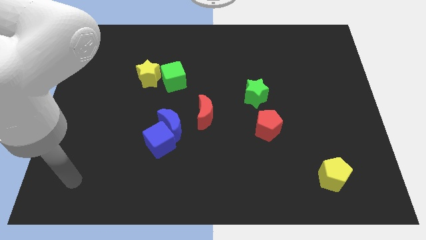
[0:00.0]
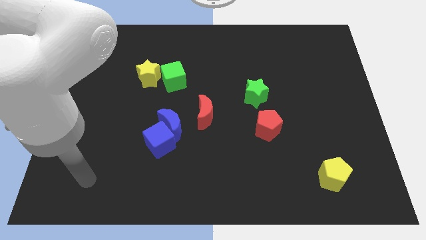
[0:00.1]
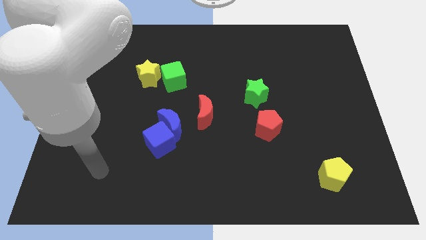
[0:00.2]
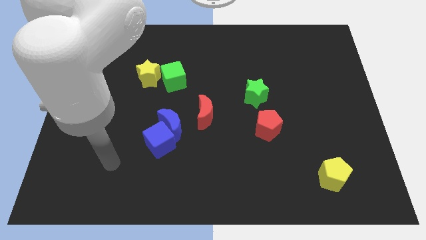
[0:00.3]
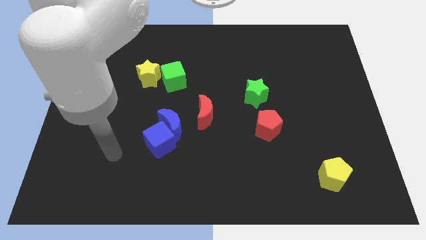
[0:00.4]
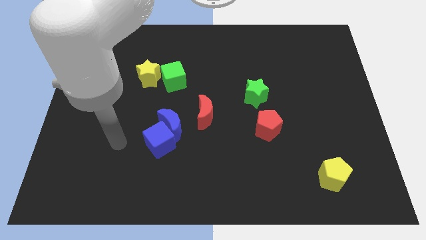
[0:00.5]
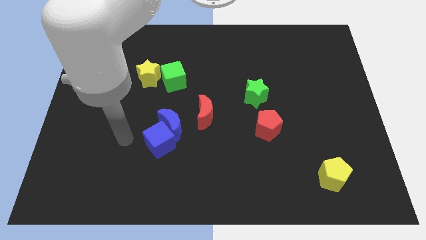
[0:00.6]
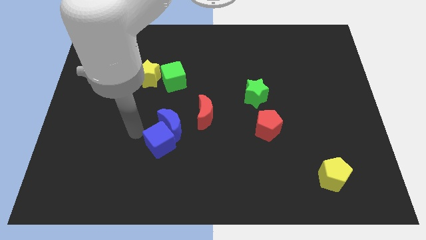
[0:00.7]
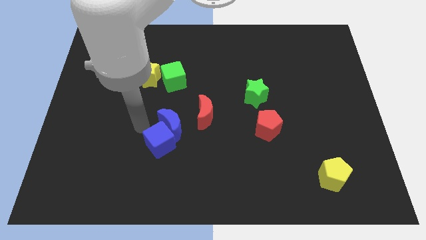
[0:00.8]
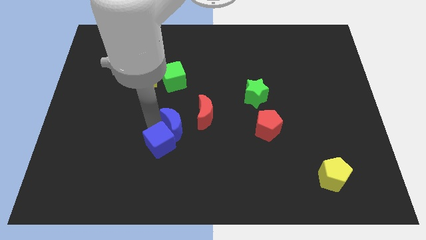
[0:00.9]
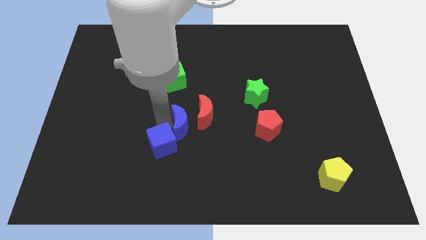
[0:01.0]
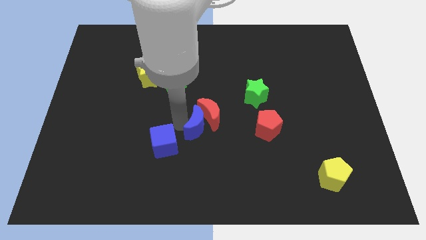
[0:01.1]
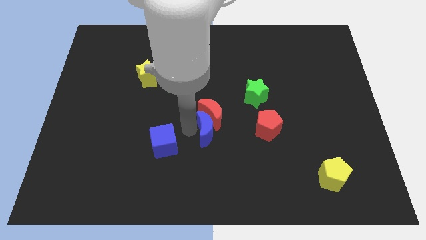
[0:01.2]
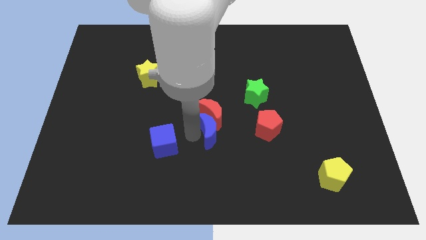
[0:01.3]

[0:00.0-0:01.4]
move the blue cube away from the blue moon

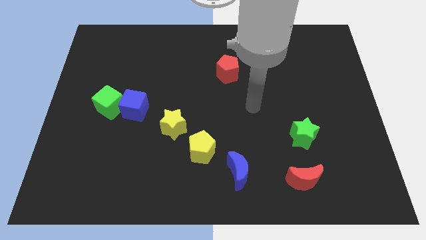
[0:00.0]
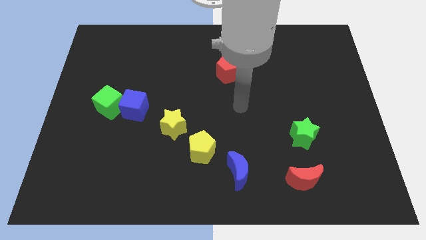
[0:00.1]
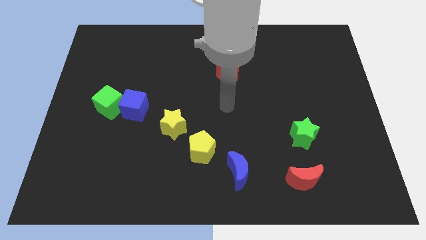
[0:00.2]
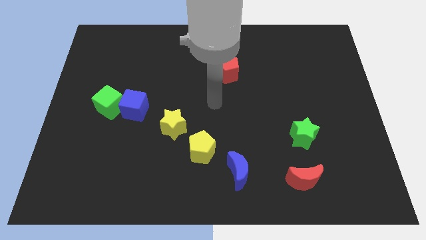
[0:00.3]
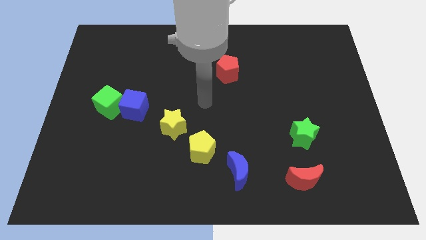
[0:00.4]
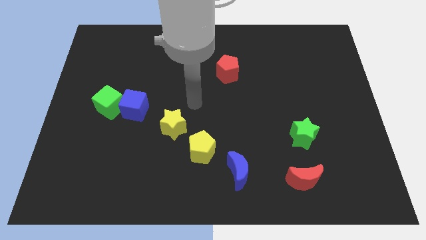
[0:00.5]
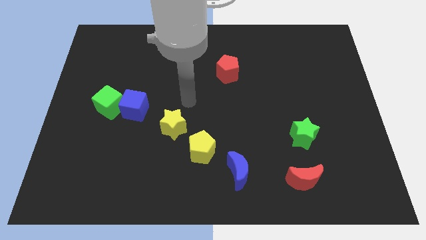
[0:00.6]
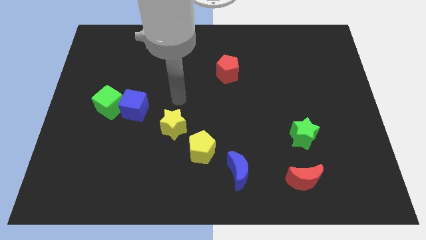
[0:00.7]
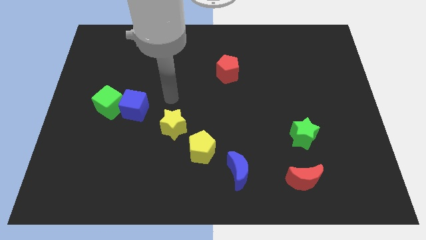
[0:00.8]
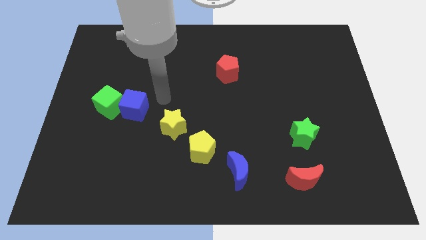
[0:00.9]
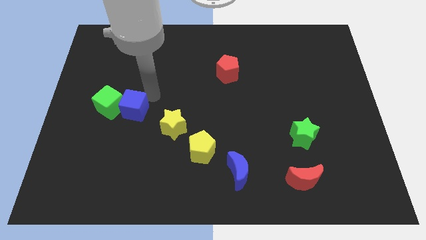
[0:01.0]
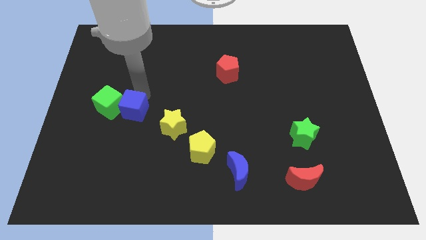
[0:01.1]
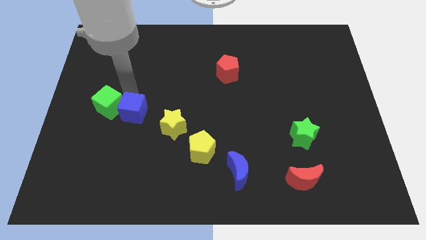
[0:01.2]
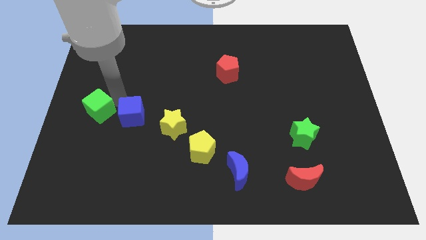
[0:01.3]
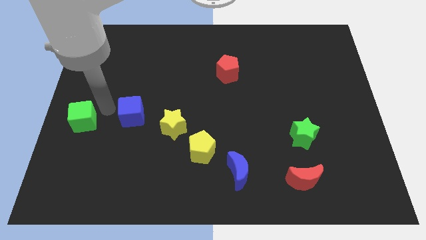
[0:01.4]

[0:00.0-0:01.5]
move the blue cube away from the green cube

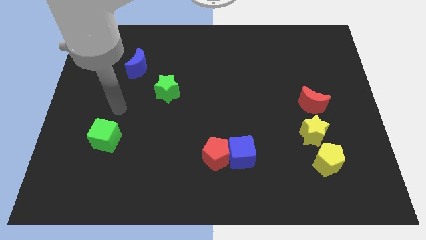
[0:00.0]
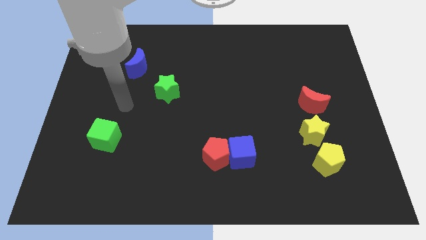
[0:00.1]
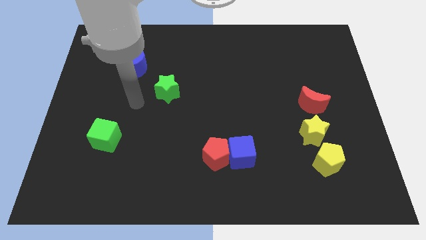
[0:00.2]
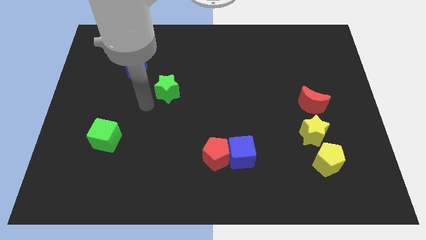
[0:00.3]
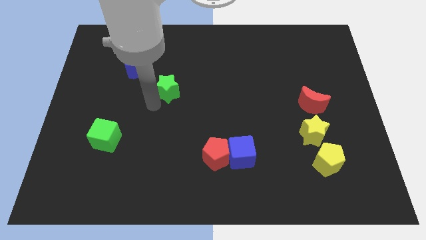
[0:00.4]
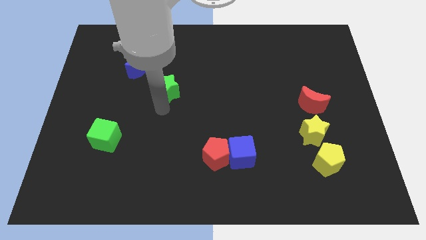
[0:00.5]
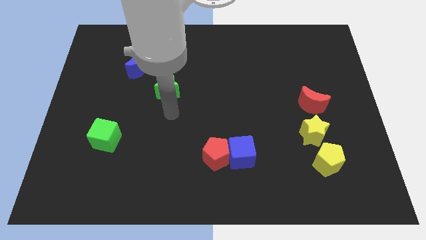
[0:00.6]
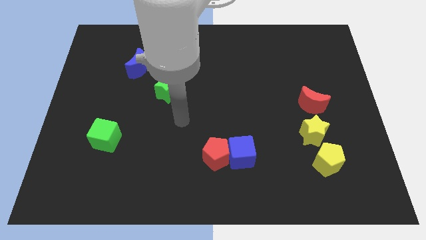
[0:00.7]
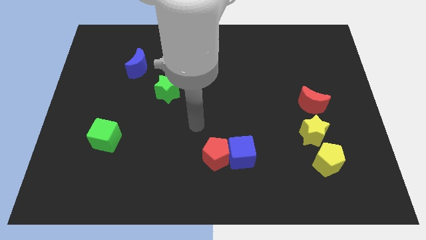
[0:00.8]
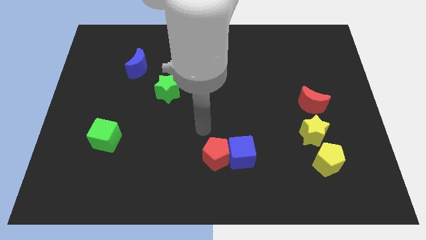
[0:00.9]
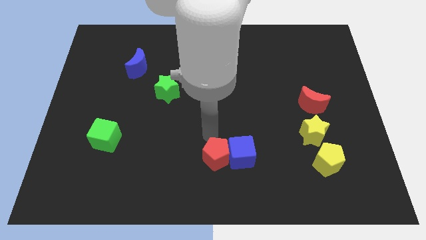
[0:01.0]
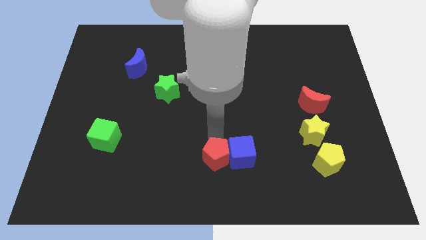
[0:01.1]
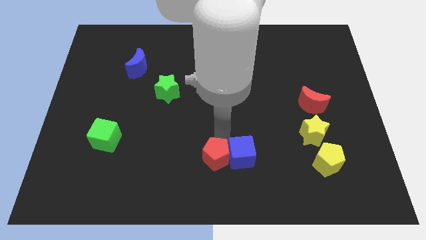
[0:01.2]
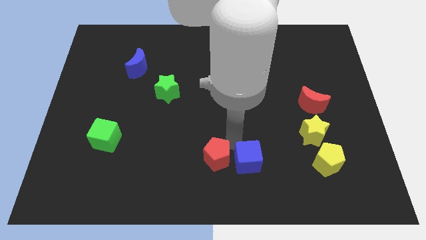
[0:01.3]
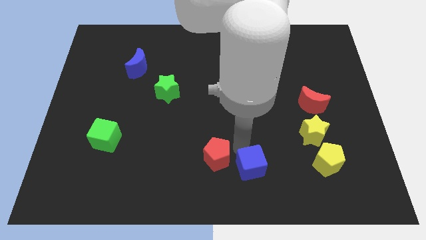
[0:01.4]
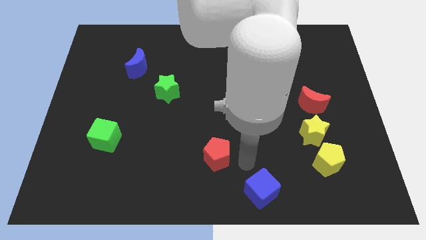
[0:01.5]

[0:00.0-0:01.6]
move the red pentagon away from the blue cube

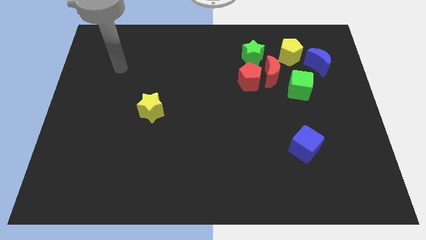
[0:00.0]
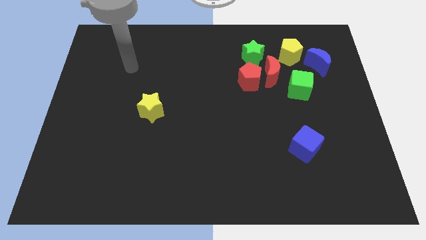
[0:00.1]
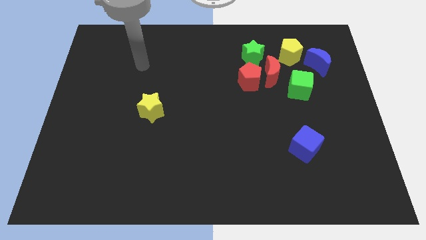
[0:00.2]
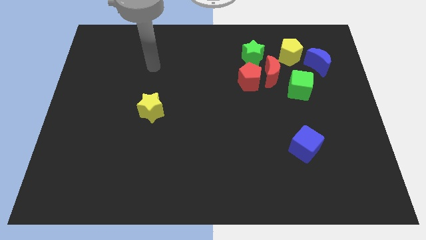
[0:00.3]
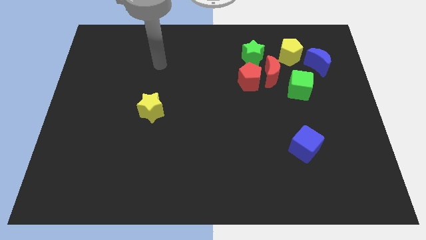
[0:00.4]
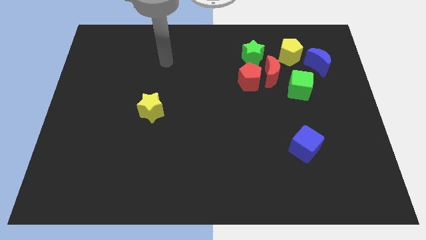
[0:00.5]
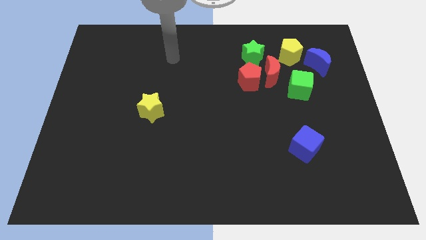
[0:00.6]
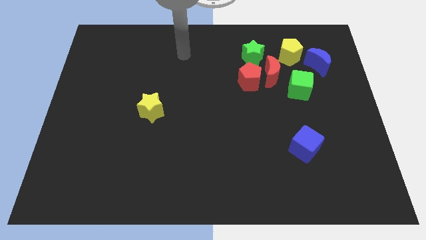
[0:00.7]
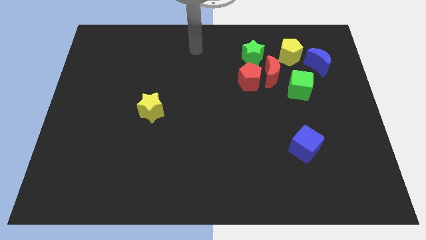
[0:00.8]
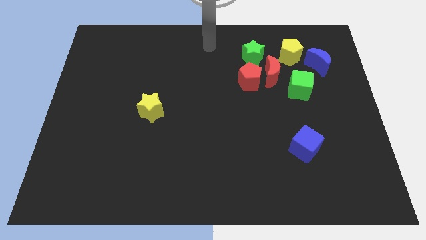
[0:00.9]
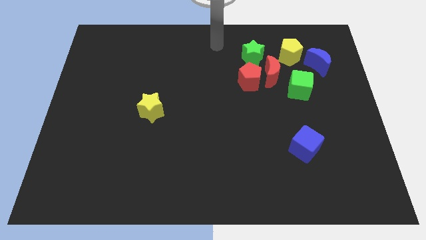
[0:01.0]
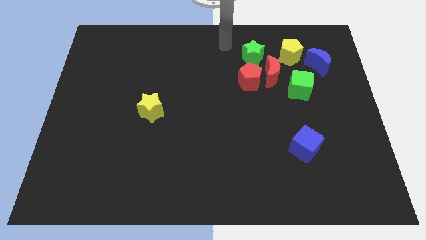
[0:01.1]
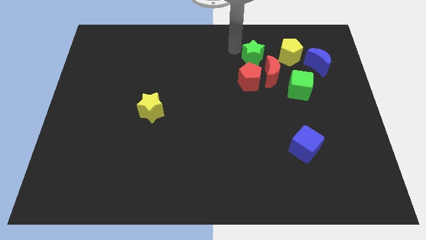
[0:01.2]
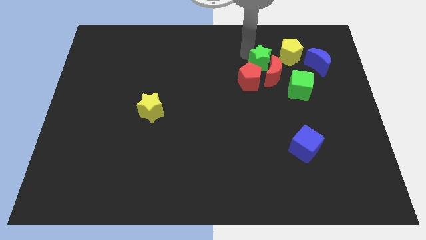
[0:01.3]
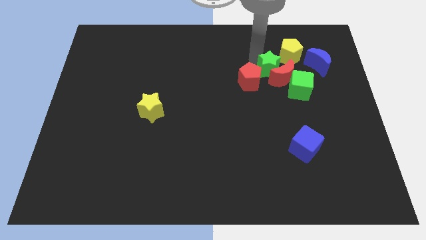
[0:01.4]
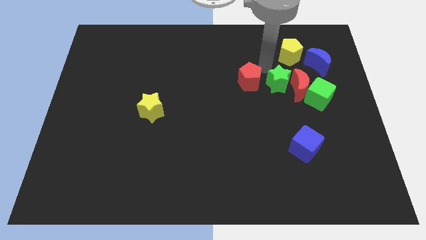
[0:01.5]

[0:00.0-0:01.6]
pull the red pentagon apart from the red moon and green star

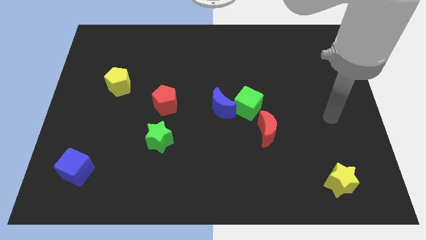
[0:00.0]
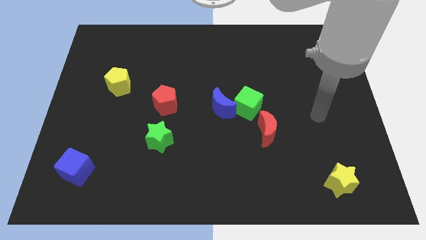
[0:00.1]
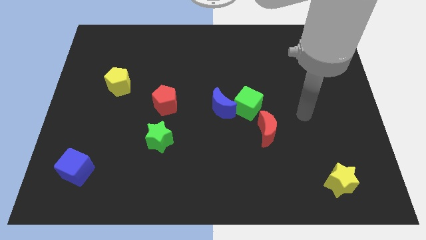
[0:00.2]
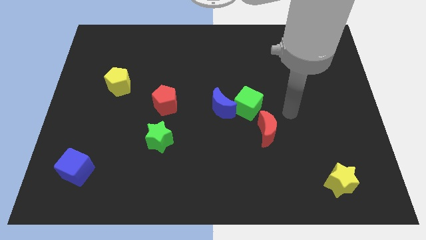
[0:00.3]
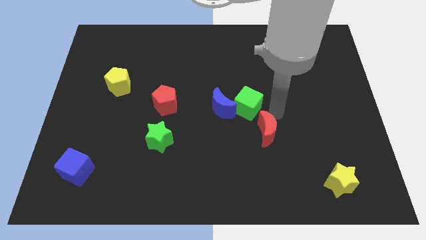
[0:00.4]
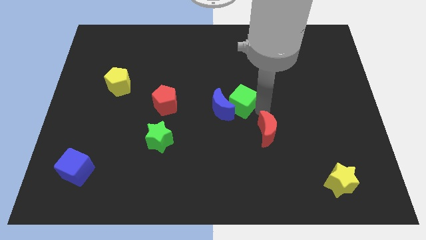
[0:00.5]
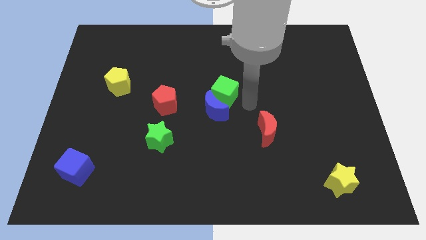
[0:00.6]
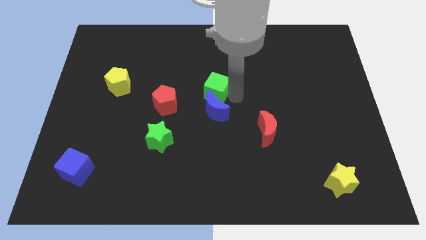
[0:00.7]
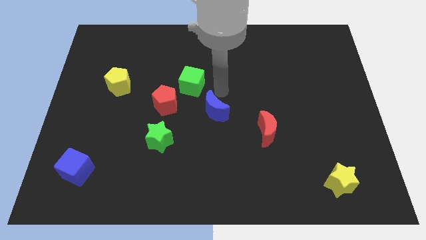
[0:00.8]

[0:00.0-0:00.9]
pull the blue moon apart from the green cube

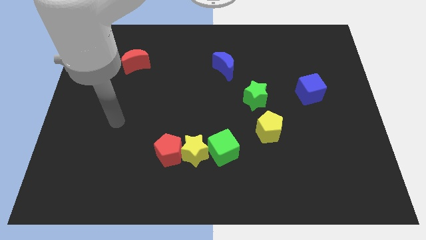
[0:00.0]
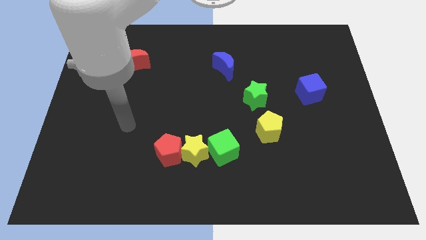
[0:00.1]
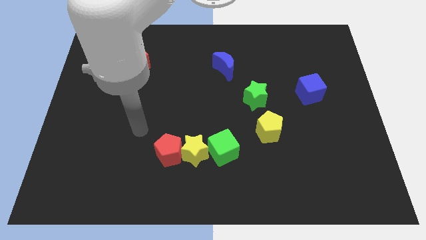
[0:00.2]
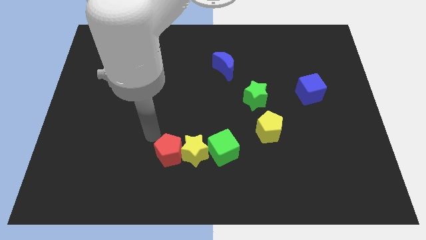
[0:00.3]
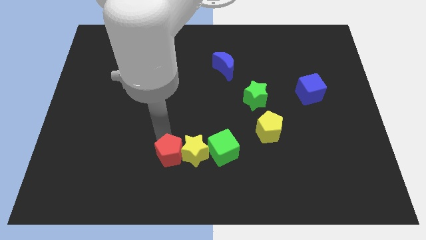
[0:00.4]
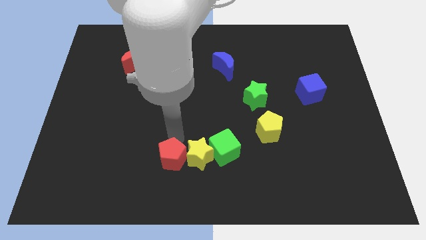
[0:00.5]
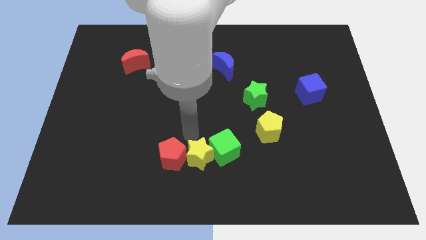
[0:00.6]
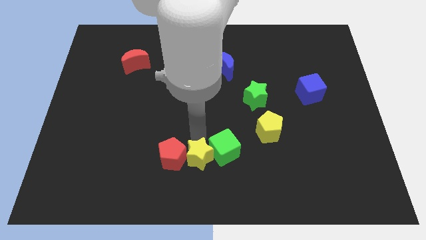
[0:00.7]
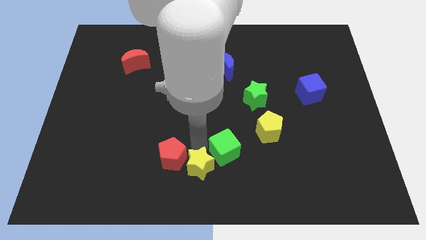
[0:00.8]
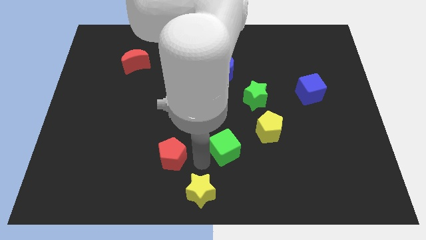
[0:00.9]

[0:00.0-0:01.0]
pull the red pentagon apart from the yellow star

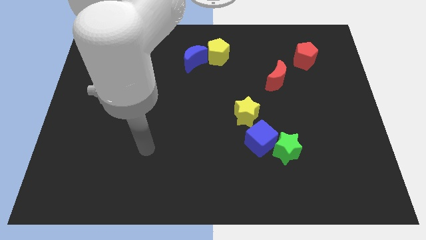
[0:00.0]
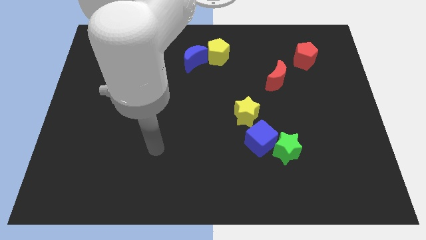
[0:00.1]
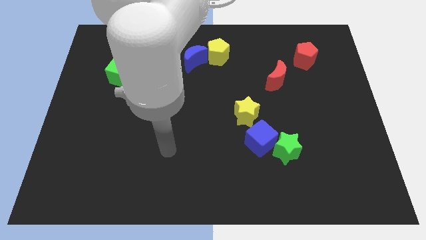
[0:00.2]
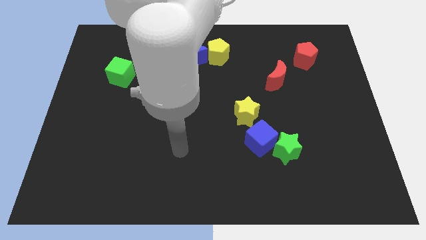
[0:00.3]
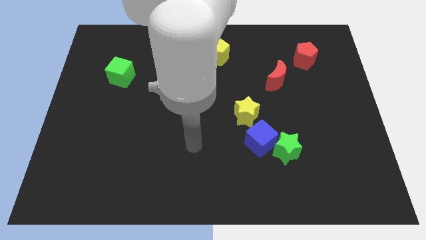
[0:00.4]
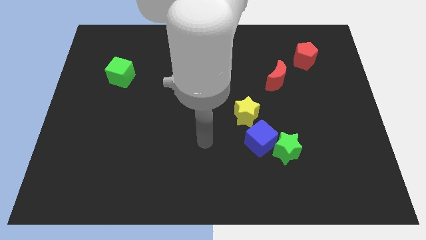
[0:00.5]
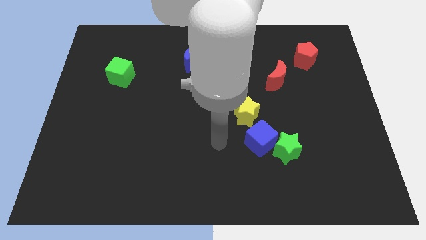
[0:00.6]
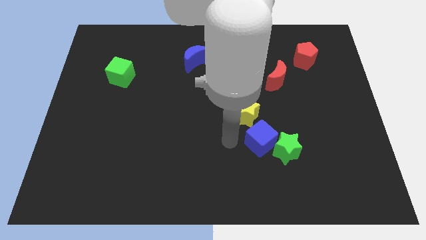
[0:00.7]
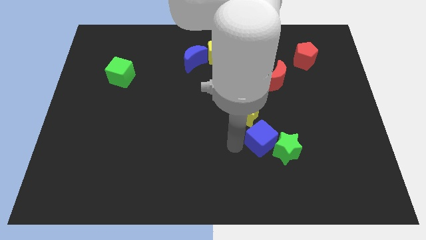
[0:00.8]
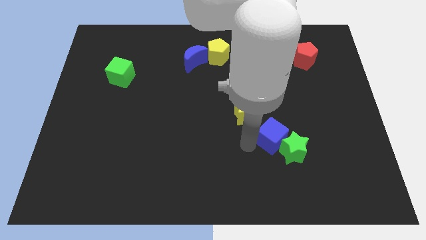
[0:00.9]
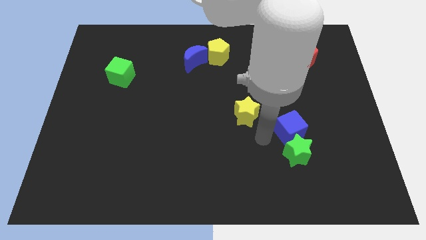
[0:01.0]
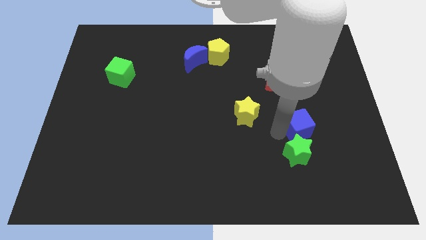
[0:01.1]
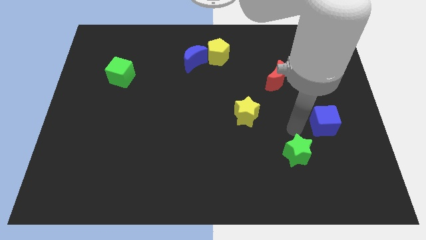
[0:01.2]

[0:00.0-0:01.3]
pull the green star apart from the blue cube
